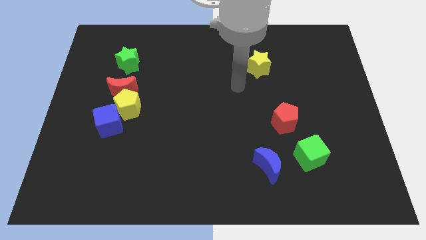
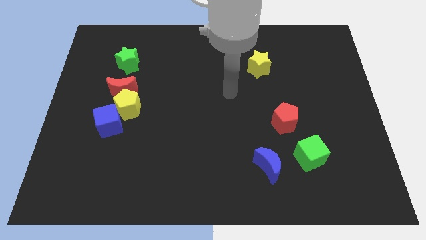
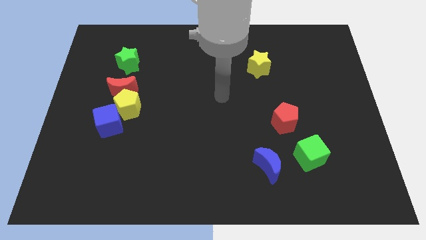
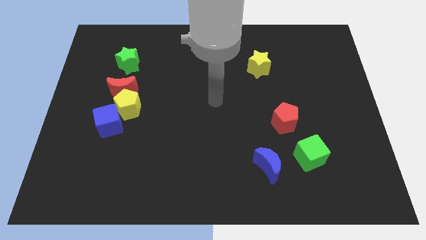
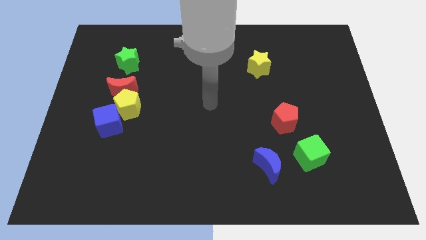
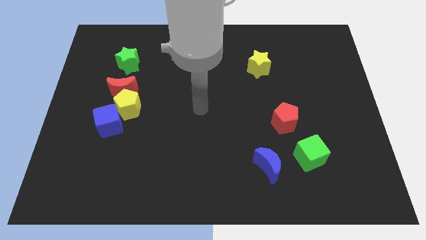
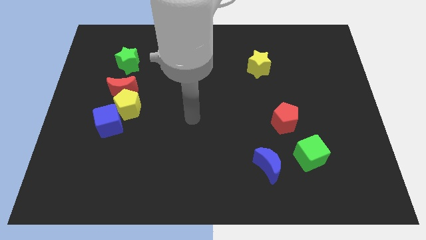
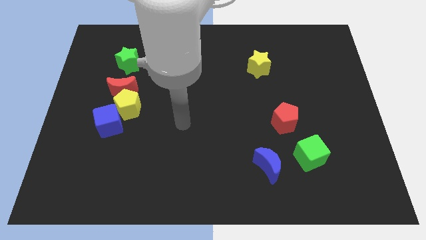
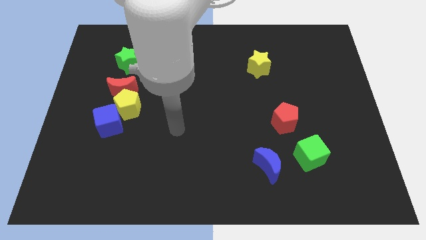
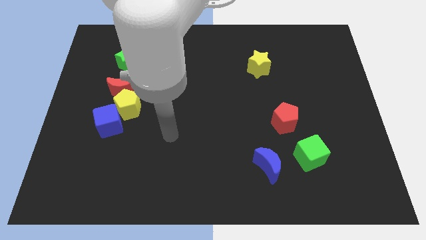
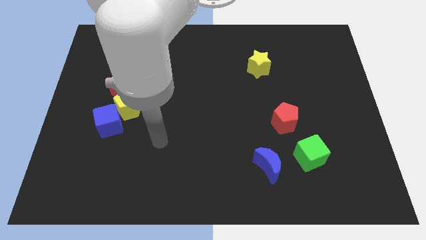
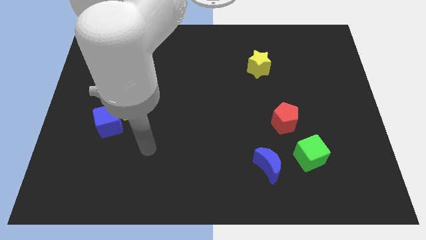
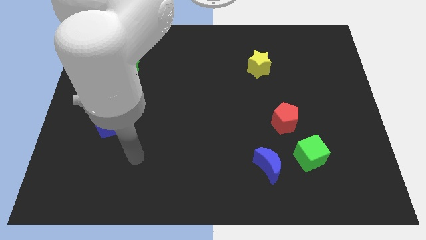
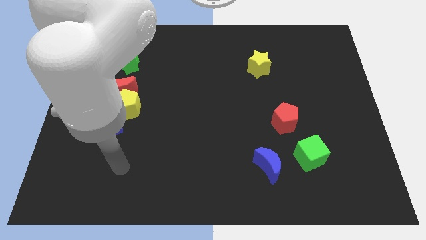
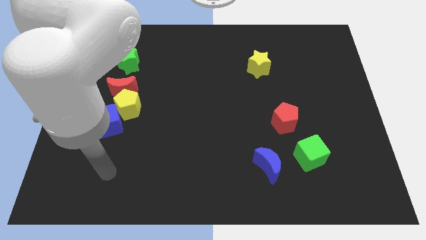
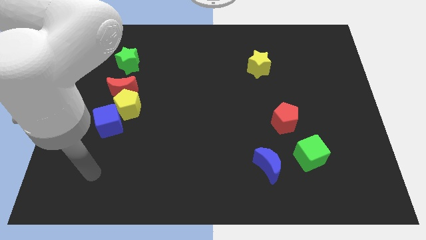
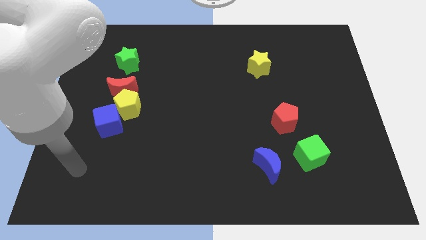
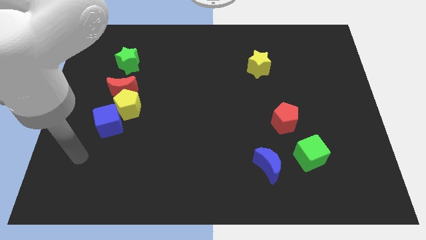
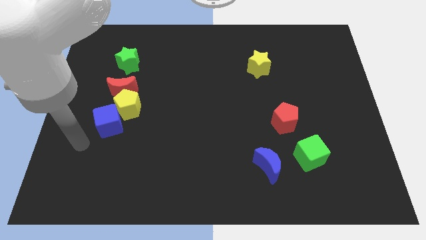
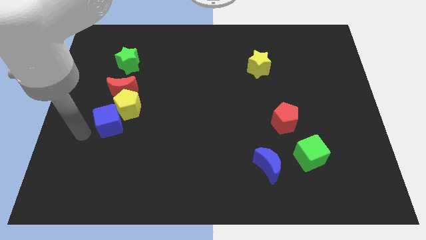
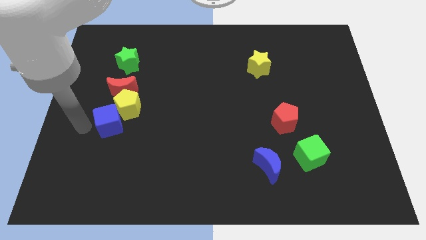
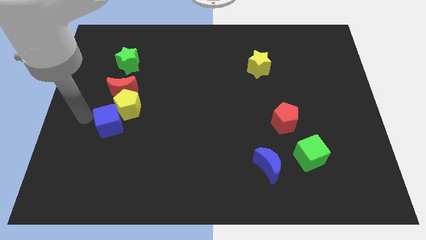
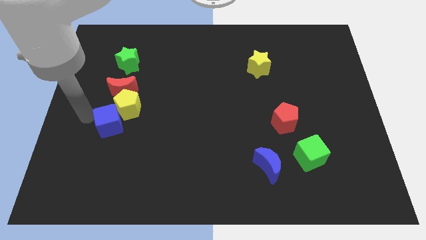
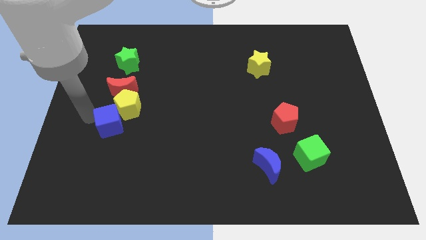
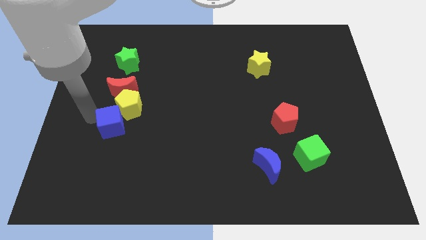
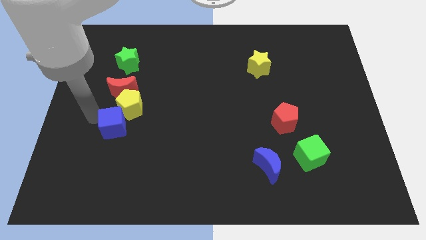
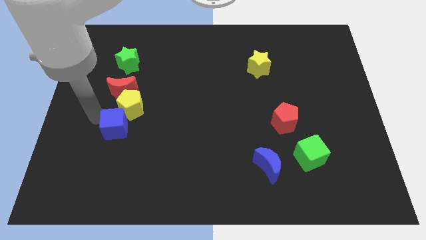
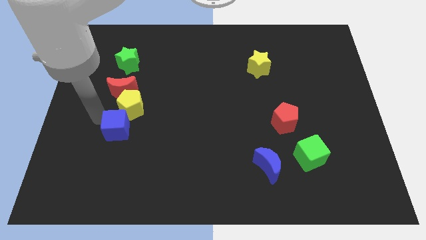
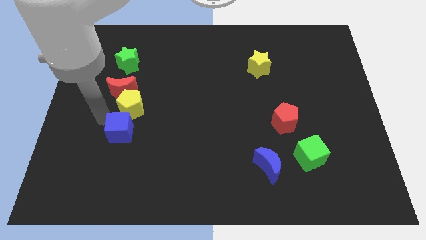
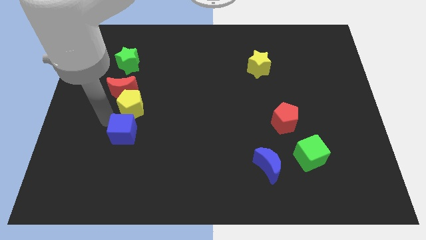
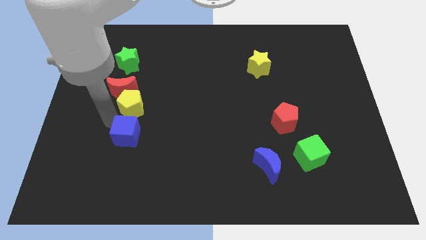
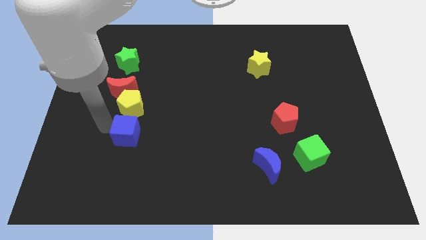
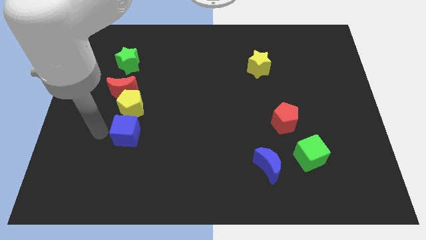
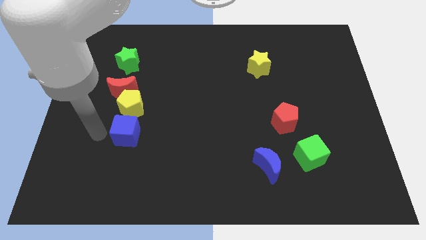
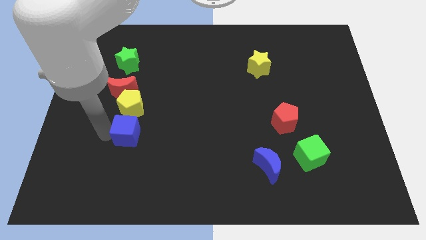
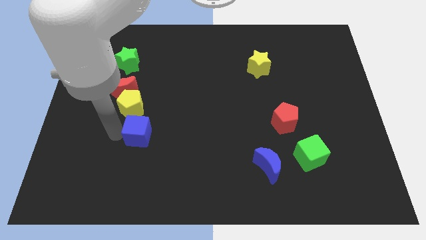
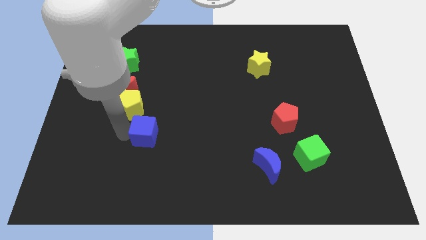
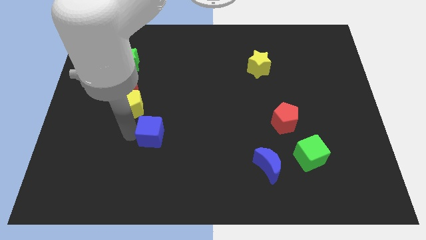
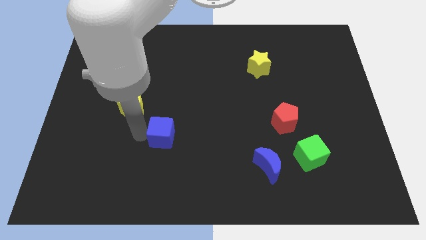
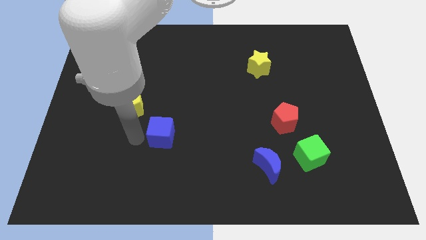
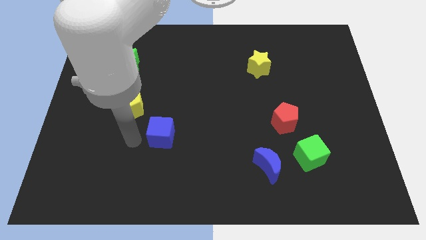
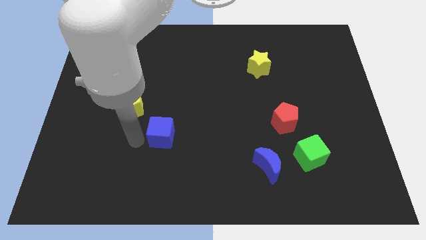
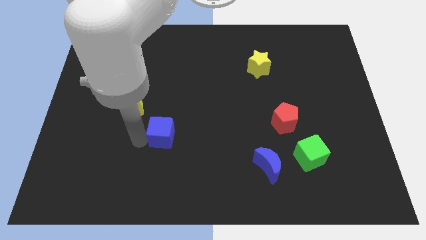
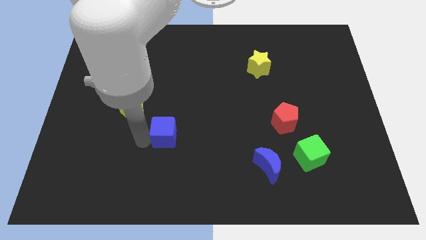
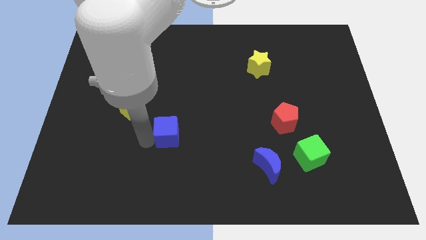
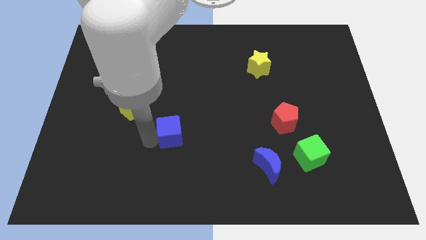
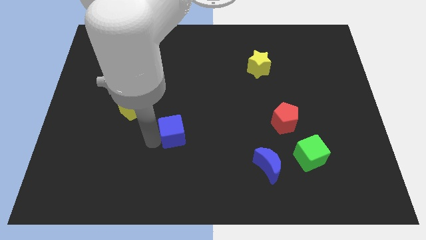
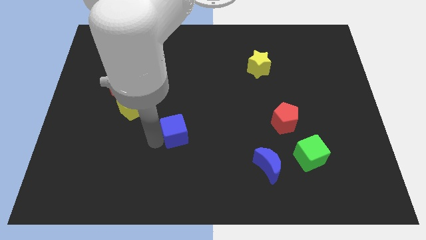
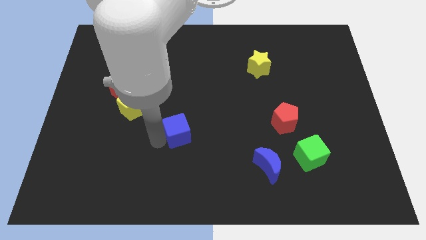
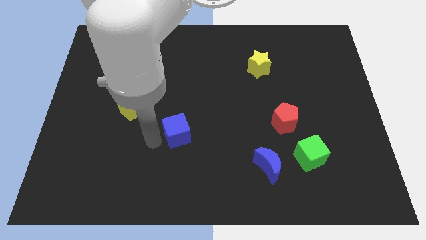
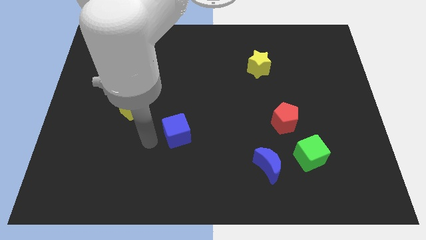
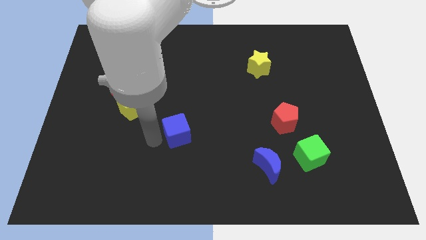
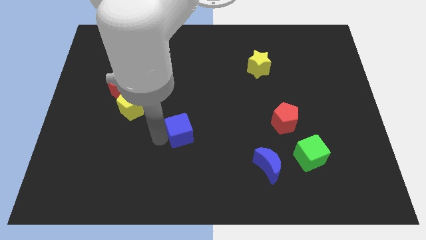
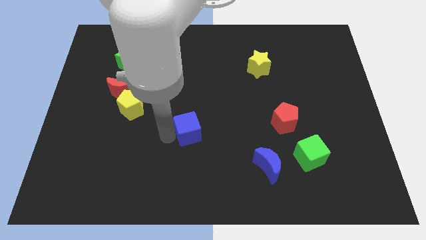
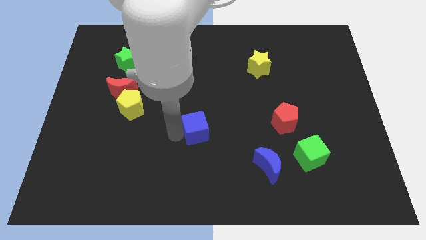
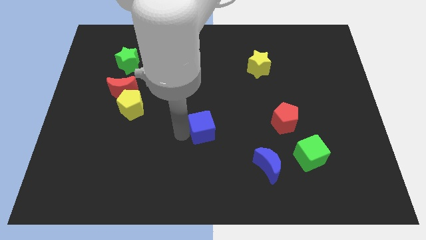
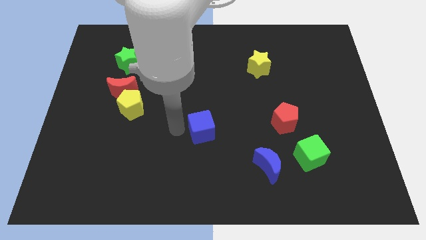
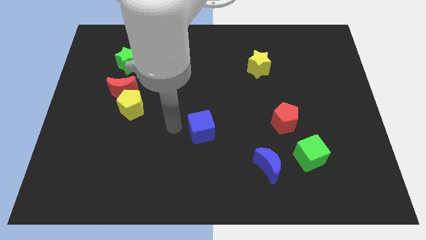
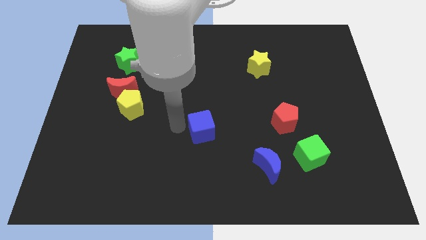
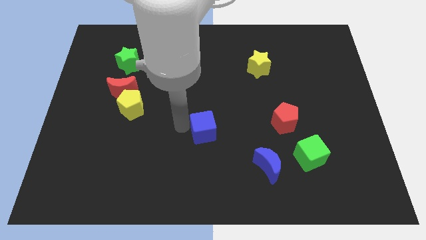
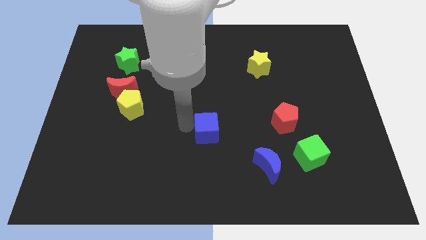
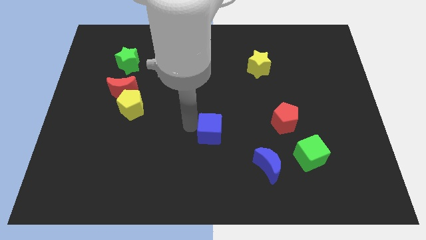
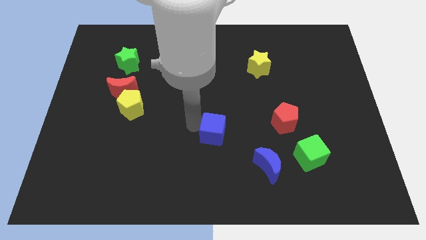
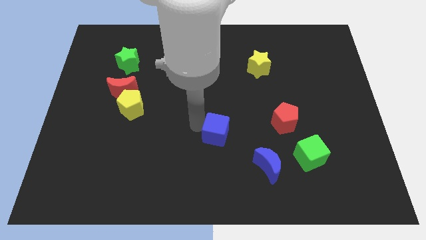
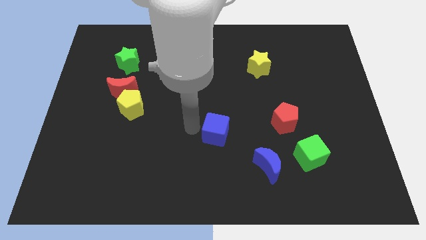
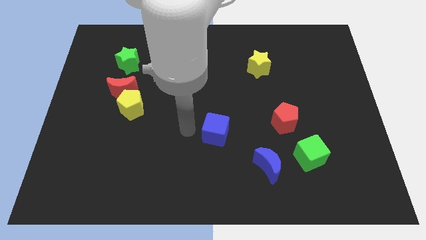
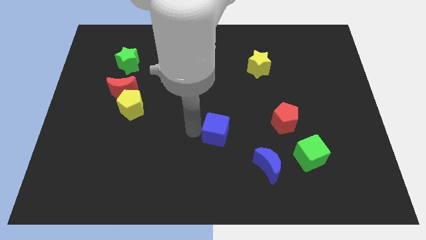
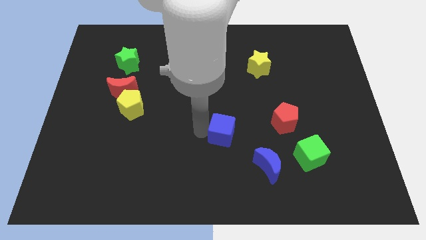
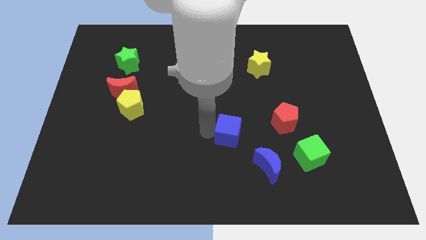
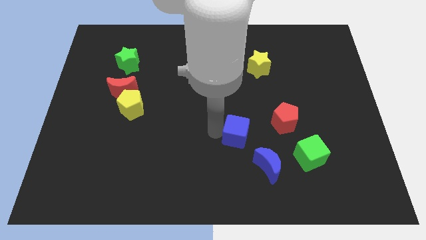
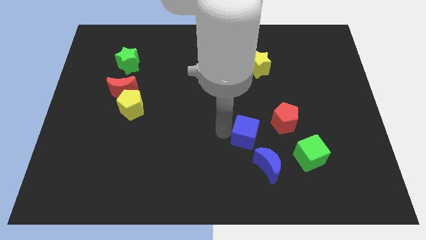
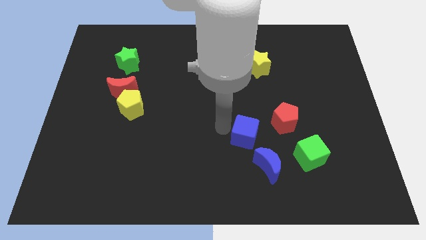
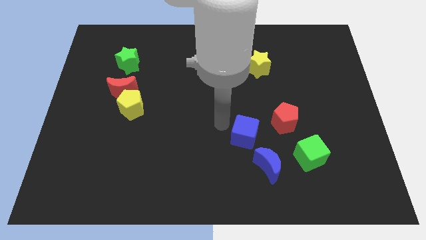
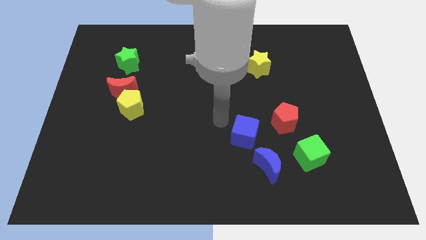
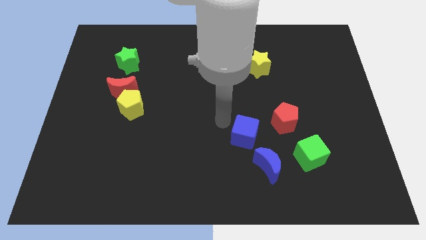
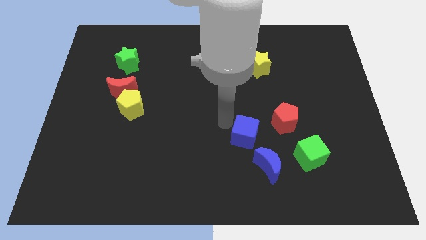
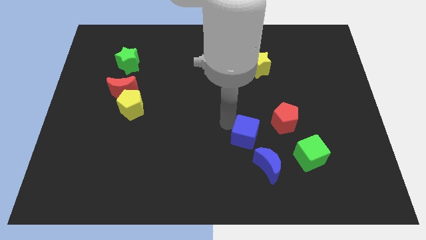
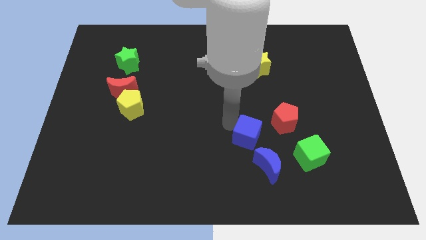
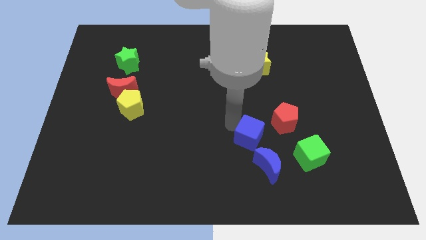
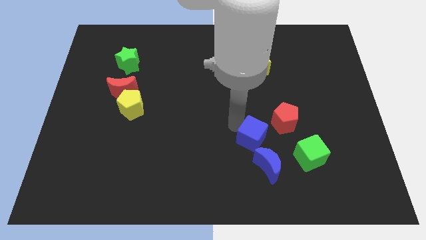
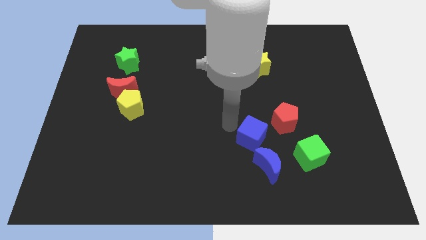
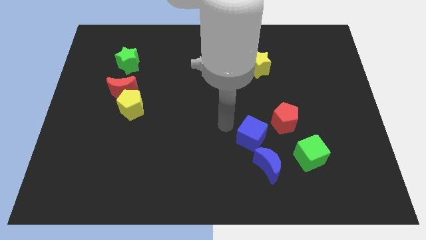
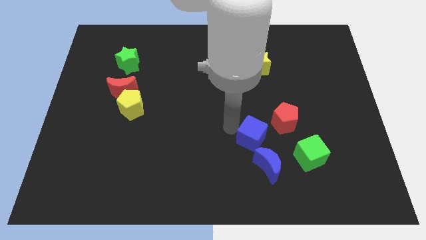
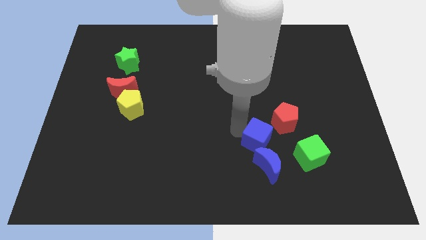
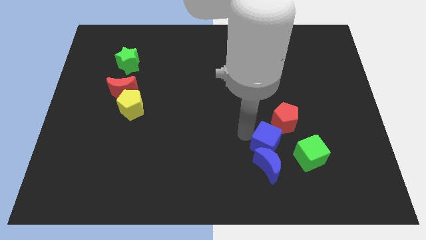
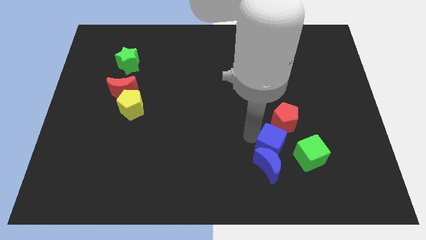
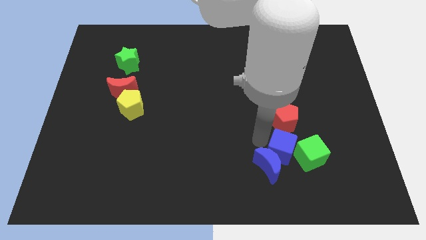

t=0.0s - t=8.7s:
put the blue cube towards the green cube
